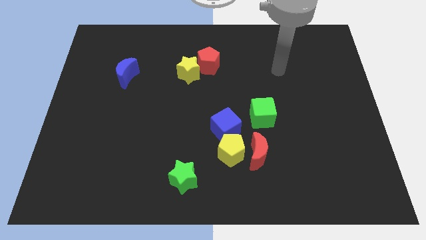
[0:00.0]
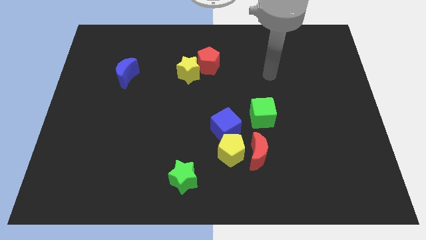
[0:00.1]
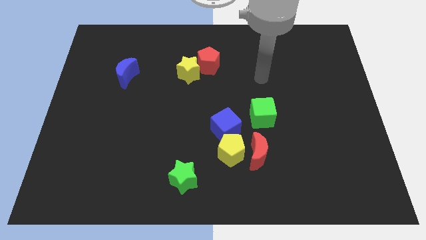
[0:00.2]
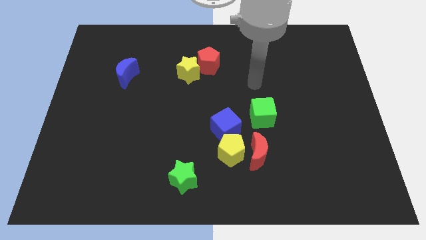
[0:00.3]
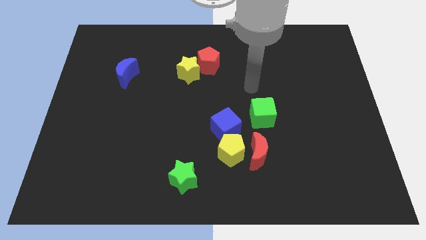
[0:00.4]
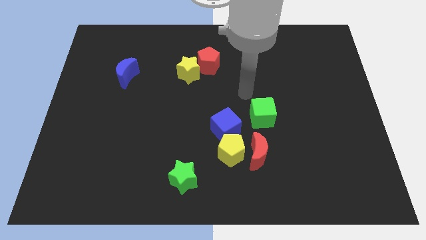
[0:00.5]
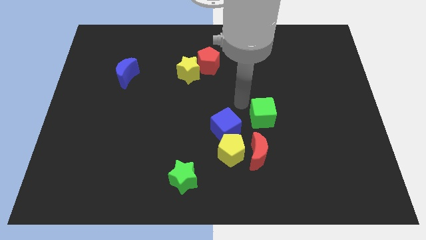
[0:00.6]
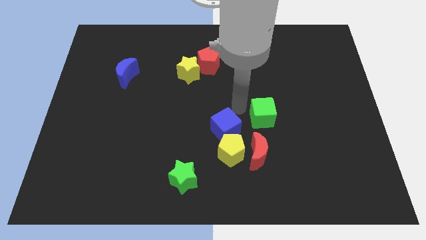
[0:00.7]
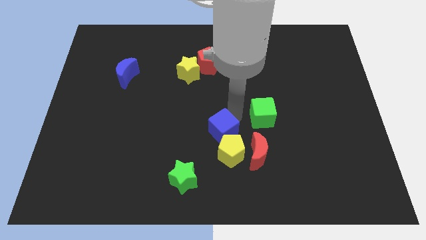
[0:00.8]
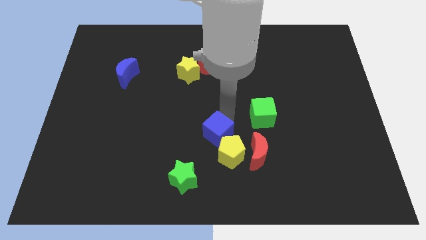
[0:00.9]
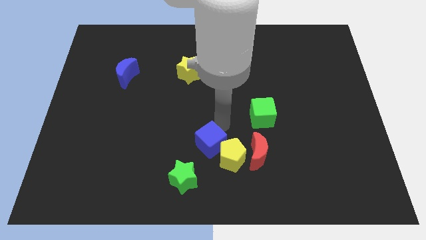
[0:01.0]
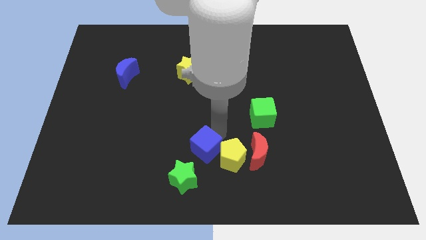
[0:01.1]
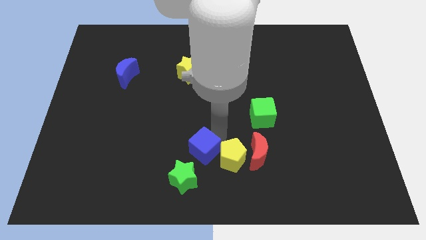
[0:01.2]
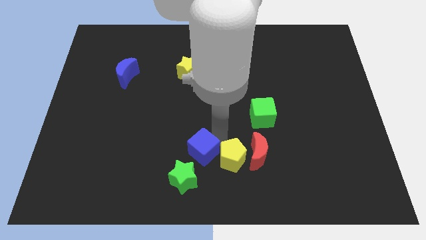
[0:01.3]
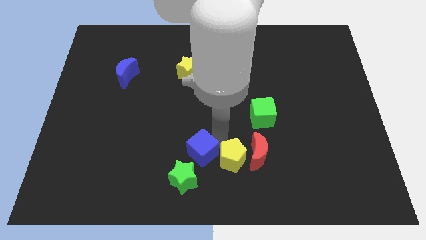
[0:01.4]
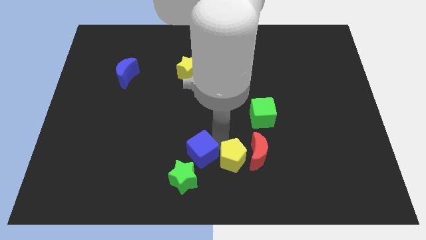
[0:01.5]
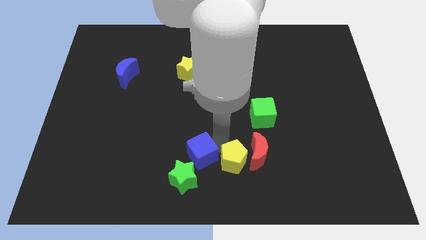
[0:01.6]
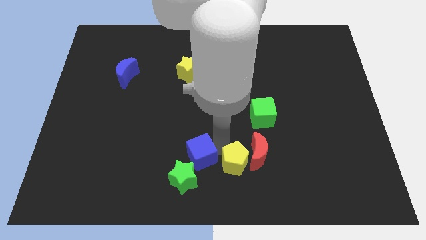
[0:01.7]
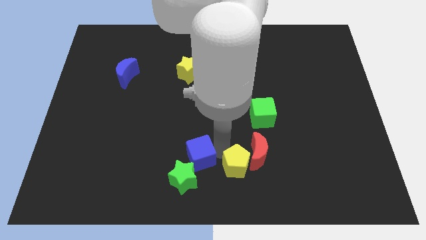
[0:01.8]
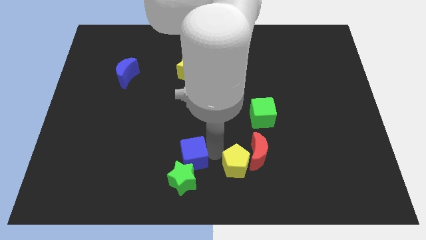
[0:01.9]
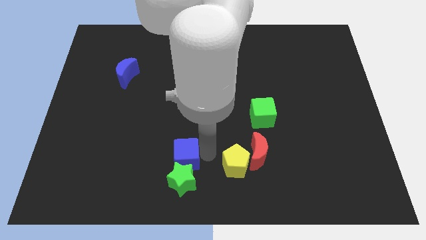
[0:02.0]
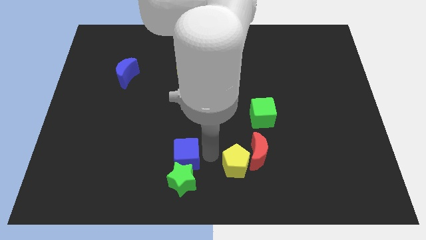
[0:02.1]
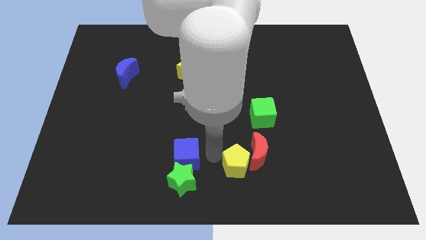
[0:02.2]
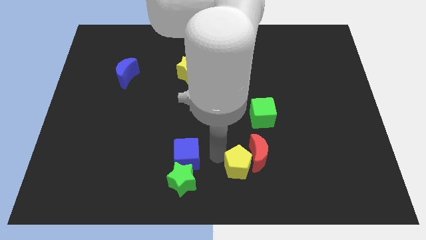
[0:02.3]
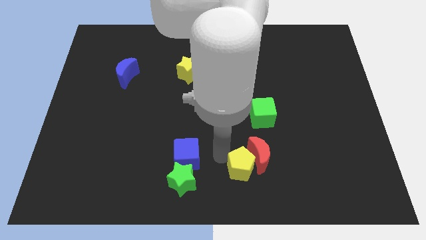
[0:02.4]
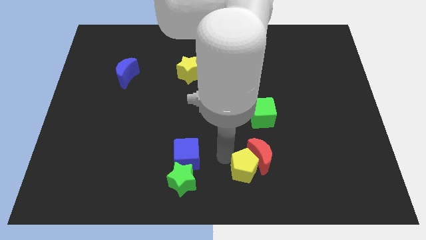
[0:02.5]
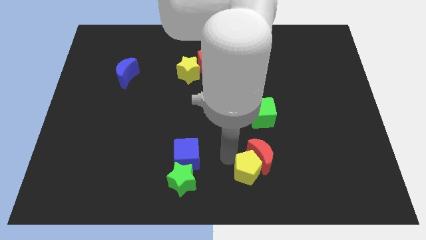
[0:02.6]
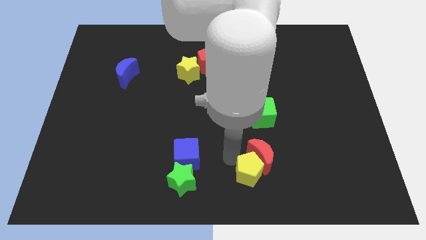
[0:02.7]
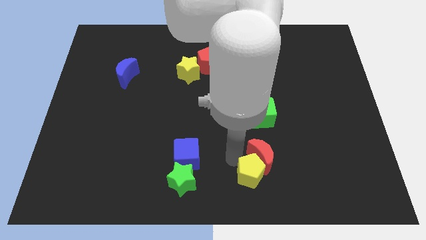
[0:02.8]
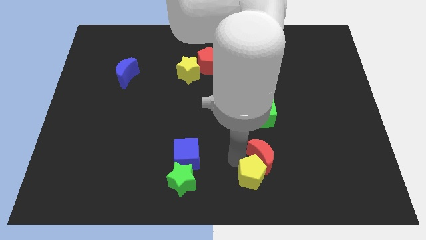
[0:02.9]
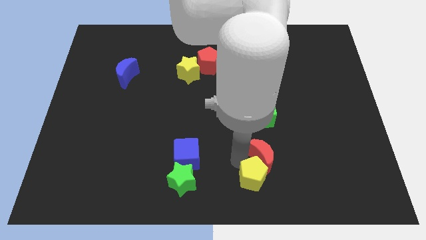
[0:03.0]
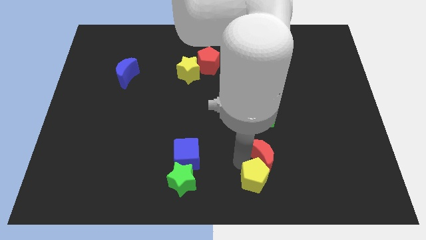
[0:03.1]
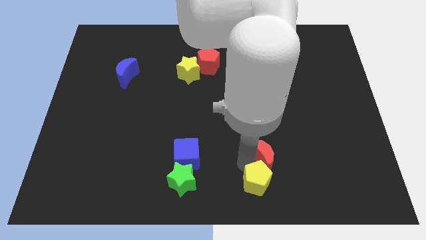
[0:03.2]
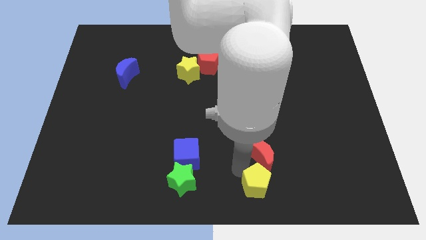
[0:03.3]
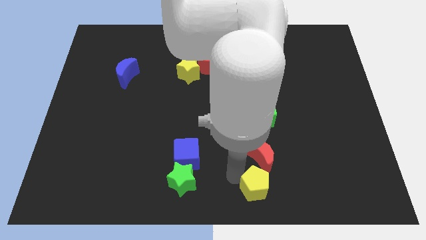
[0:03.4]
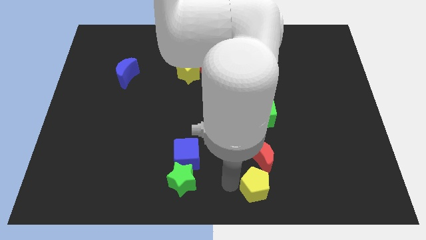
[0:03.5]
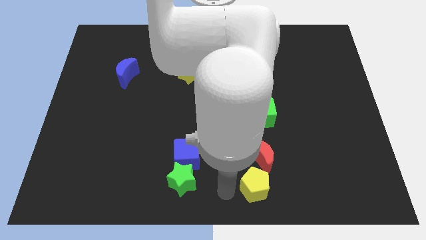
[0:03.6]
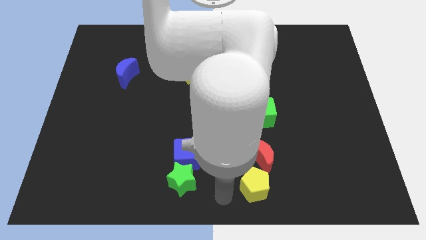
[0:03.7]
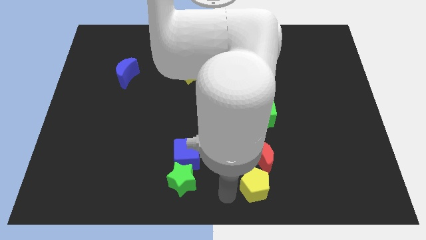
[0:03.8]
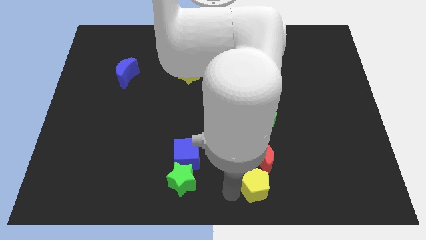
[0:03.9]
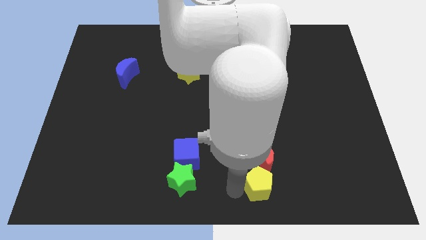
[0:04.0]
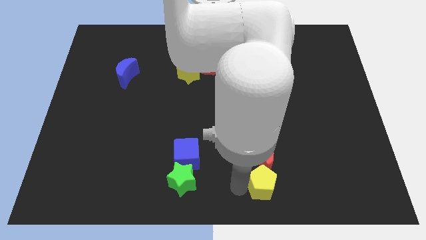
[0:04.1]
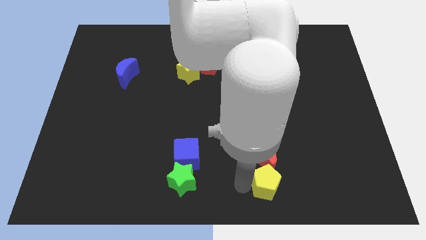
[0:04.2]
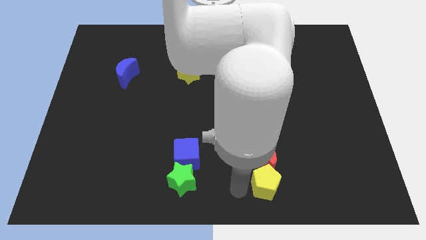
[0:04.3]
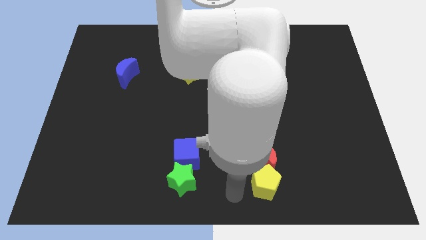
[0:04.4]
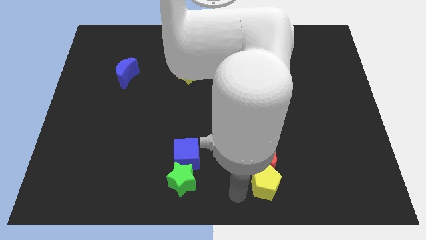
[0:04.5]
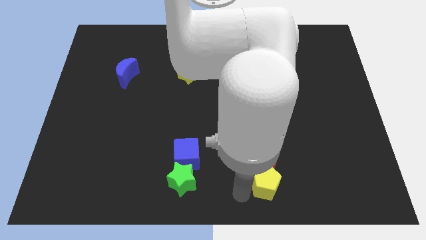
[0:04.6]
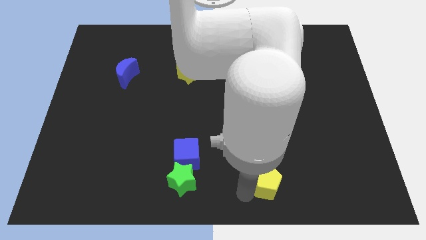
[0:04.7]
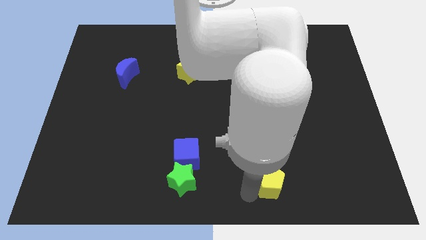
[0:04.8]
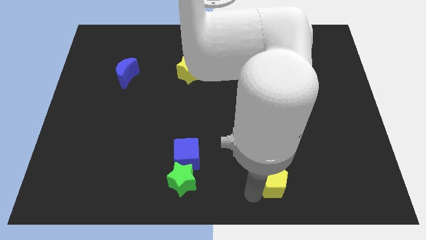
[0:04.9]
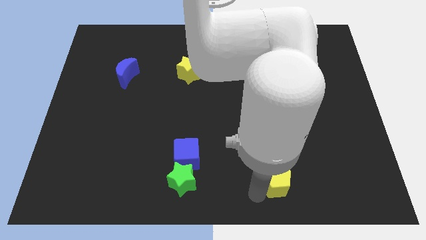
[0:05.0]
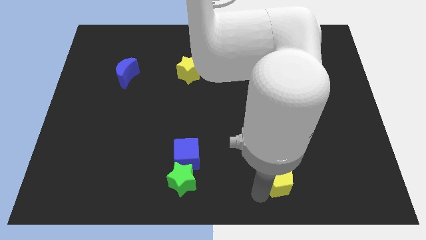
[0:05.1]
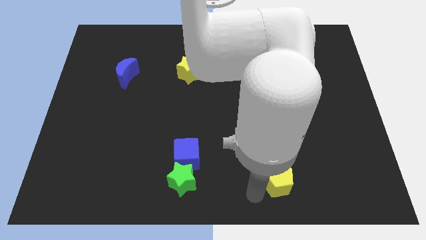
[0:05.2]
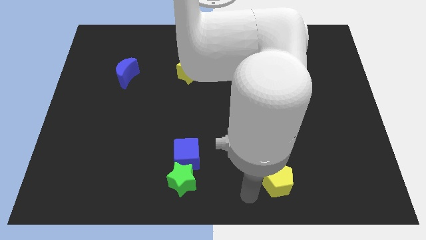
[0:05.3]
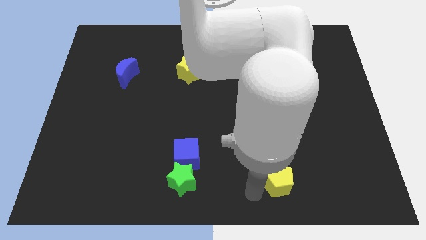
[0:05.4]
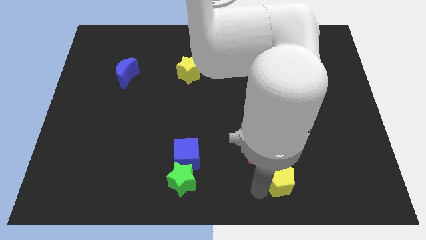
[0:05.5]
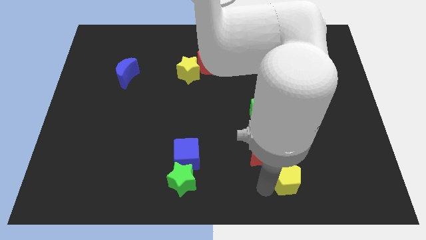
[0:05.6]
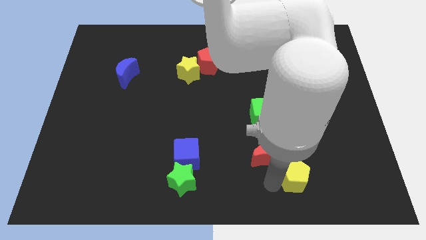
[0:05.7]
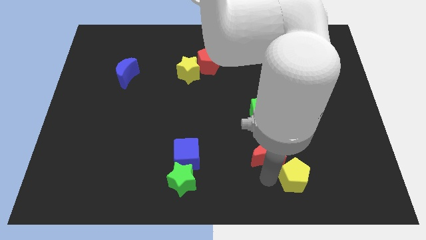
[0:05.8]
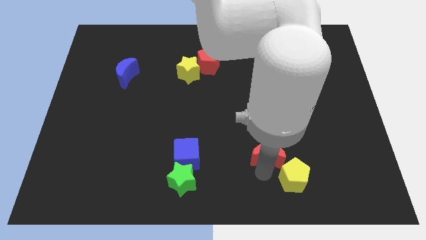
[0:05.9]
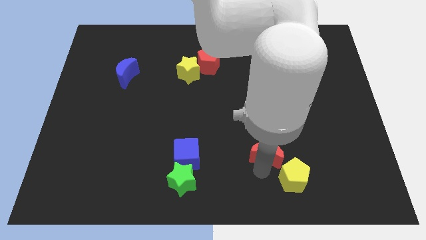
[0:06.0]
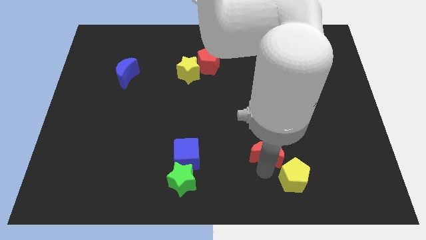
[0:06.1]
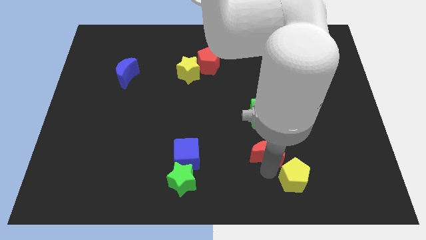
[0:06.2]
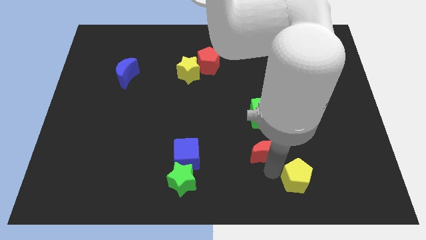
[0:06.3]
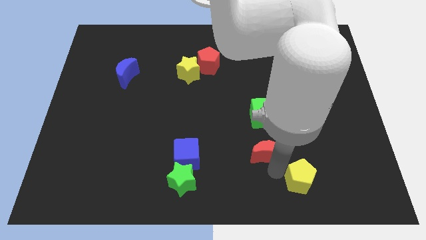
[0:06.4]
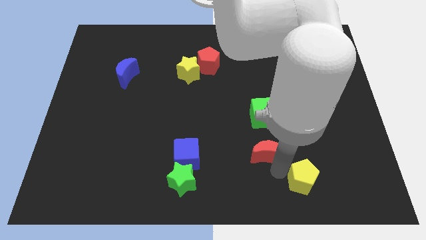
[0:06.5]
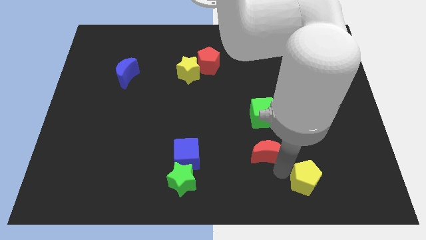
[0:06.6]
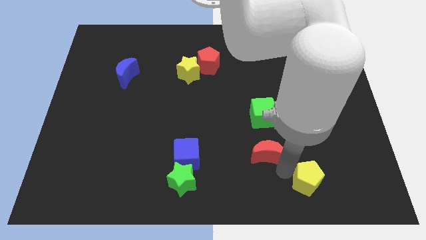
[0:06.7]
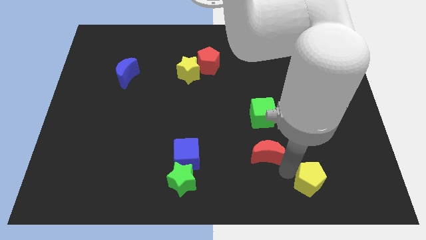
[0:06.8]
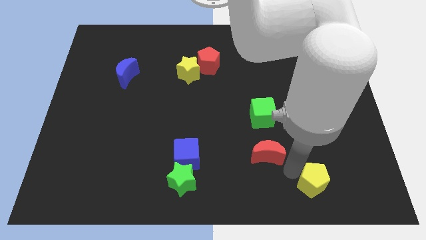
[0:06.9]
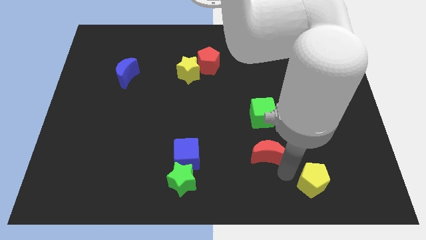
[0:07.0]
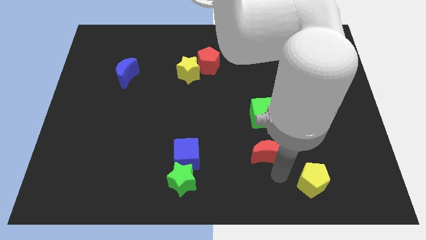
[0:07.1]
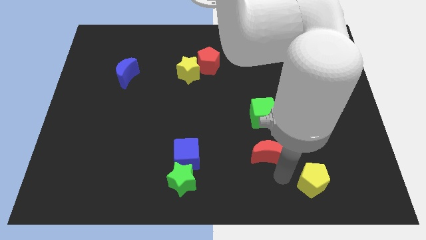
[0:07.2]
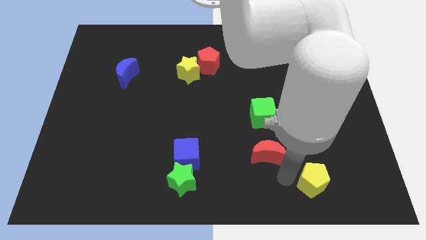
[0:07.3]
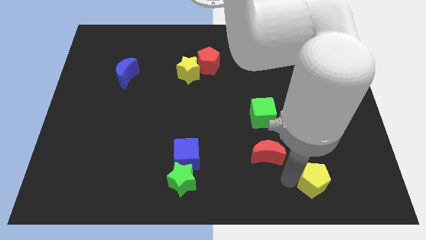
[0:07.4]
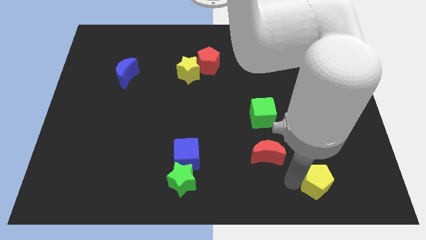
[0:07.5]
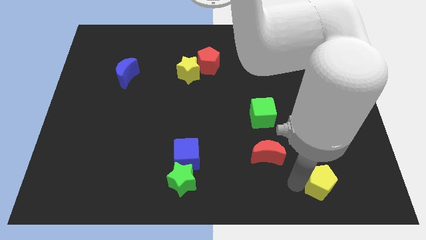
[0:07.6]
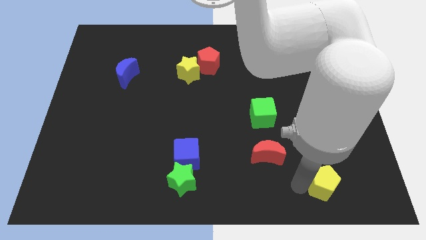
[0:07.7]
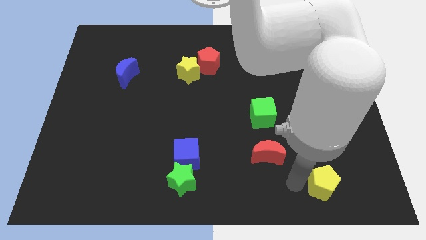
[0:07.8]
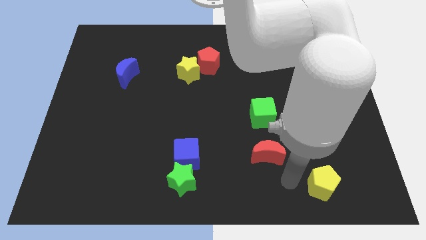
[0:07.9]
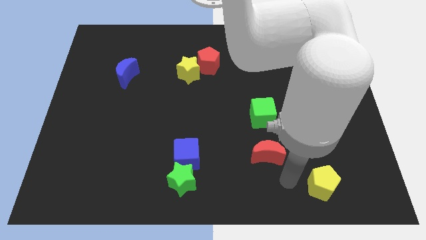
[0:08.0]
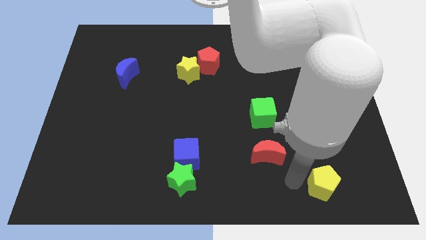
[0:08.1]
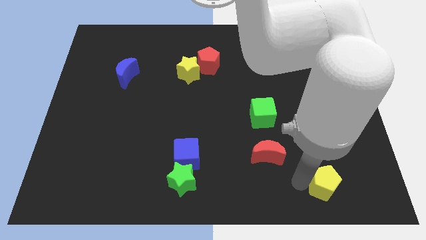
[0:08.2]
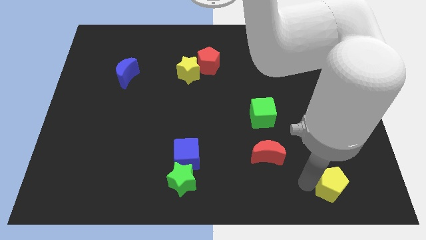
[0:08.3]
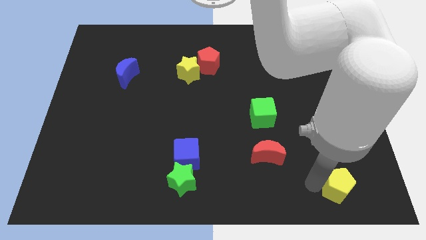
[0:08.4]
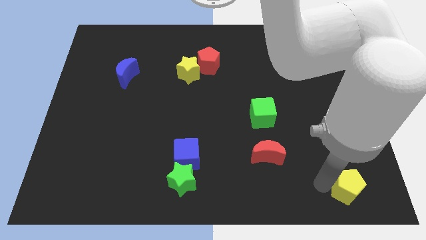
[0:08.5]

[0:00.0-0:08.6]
push the yellow pentagon to the bottom right of the board
